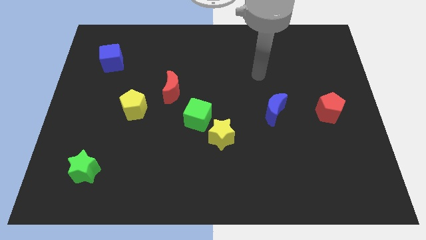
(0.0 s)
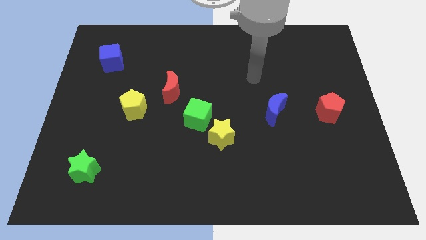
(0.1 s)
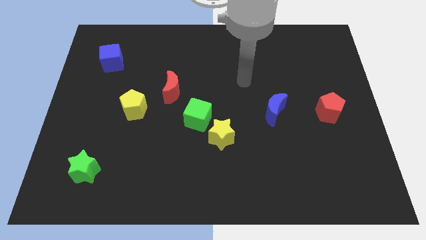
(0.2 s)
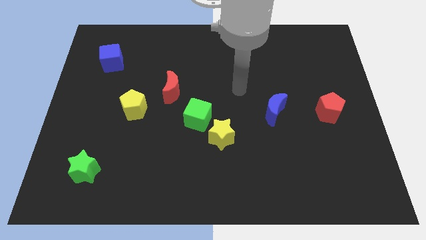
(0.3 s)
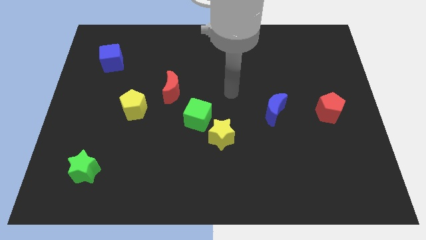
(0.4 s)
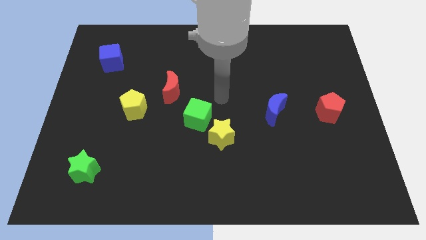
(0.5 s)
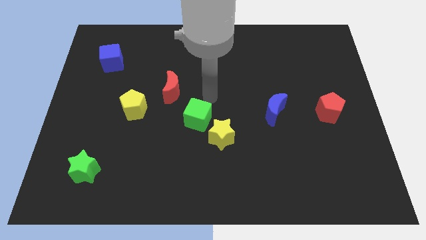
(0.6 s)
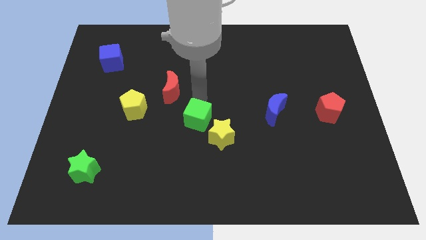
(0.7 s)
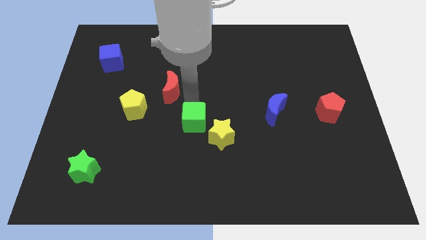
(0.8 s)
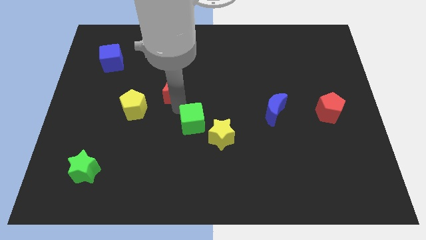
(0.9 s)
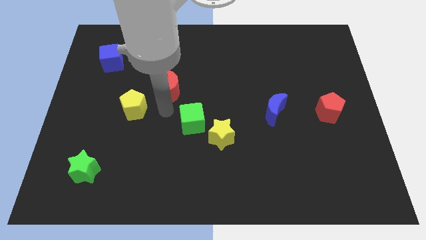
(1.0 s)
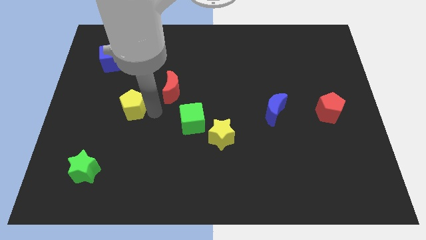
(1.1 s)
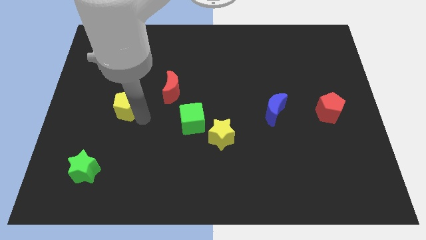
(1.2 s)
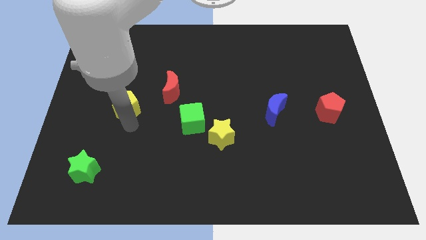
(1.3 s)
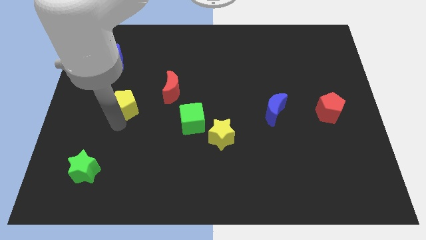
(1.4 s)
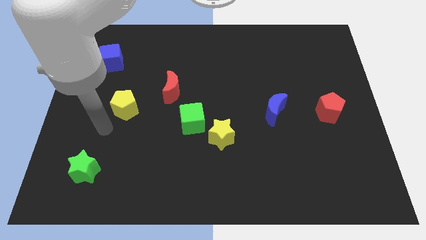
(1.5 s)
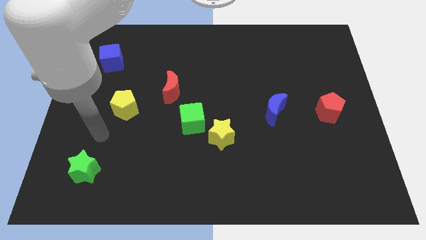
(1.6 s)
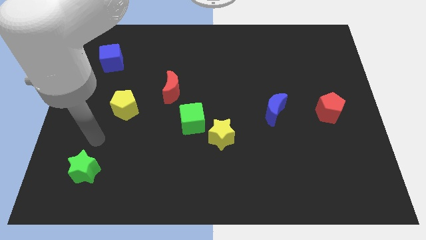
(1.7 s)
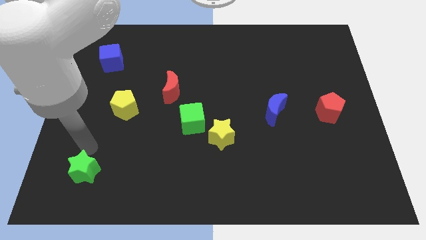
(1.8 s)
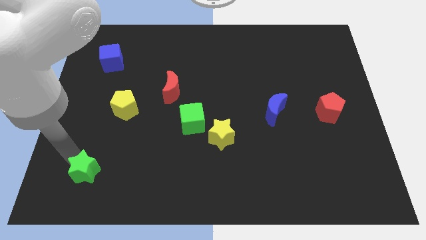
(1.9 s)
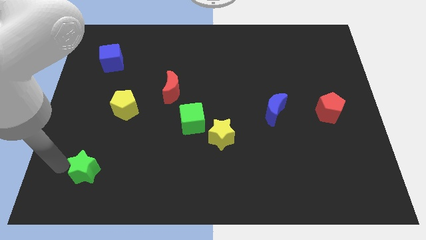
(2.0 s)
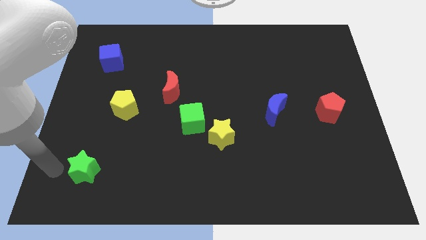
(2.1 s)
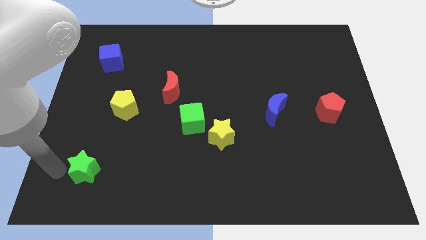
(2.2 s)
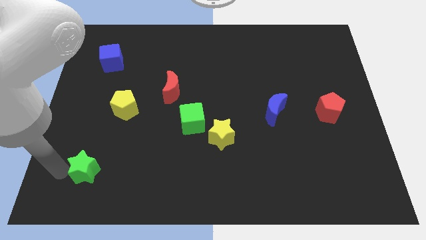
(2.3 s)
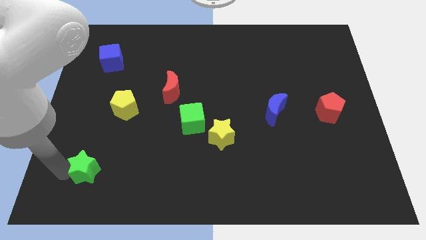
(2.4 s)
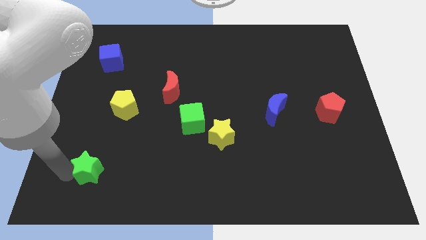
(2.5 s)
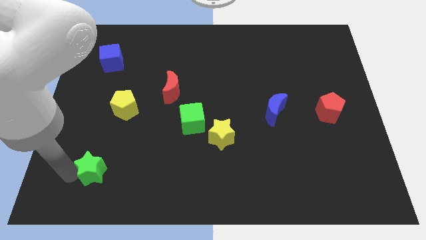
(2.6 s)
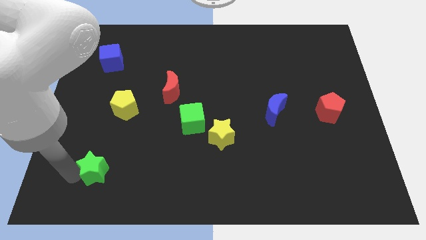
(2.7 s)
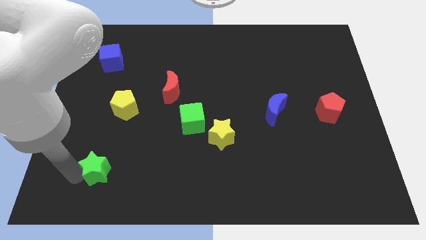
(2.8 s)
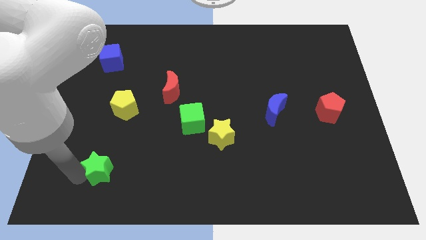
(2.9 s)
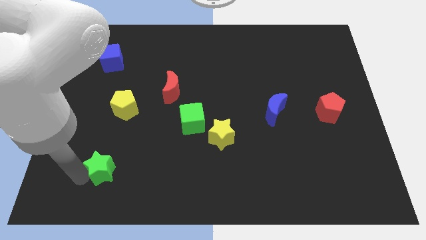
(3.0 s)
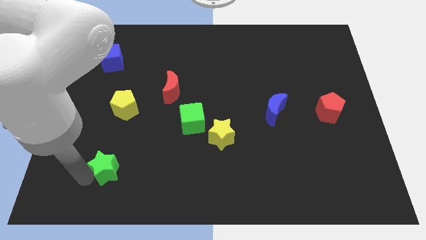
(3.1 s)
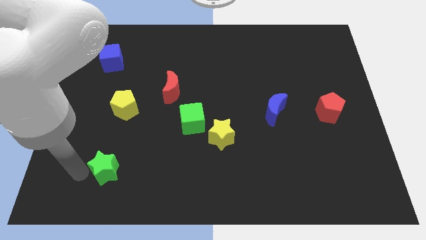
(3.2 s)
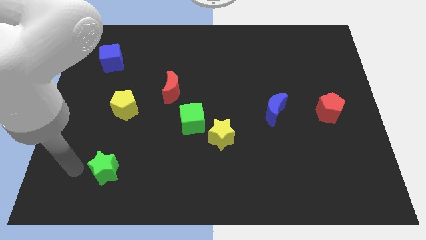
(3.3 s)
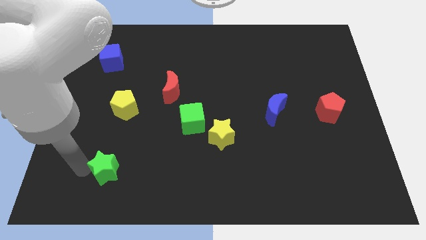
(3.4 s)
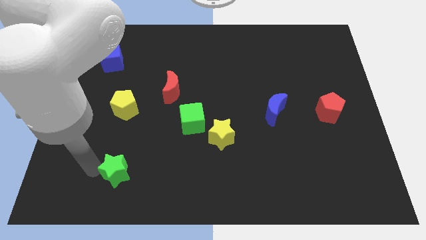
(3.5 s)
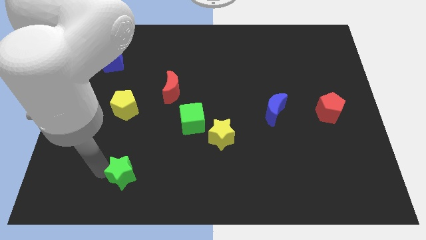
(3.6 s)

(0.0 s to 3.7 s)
slightly move the green star right

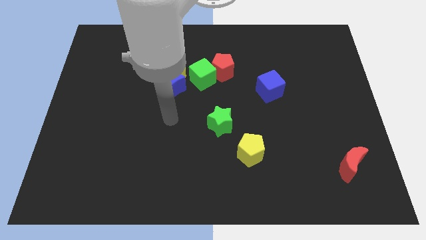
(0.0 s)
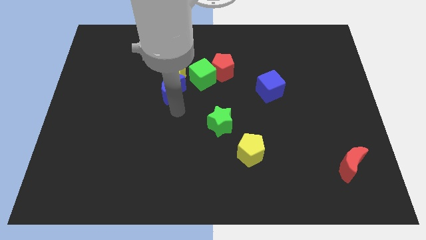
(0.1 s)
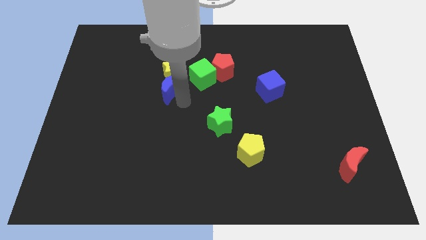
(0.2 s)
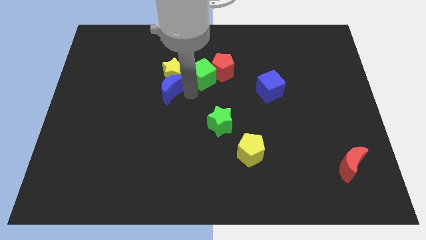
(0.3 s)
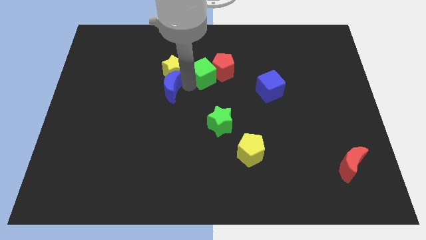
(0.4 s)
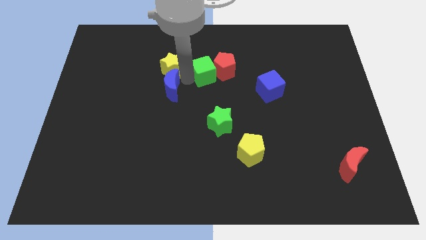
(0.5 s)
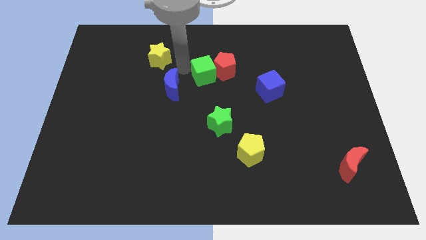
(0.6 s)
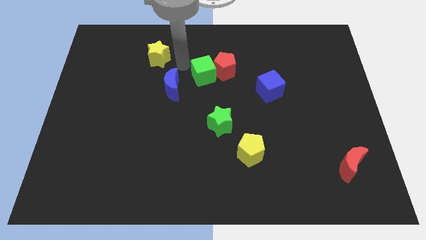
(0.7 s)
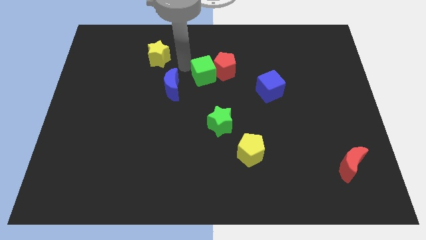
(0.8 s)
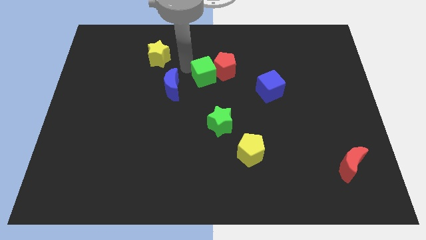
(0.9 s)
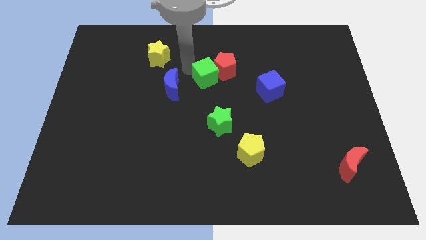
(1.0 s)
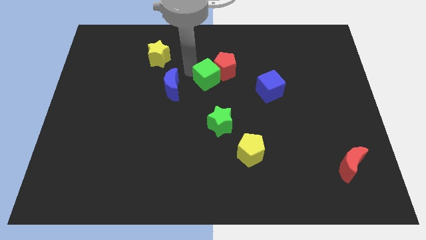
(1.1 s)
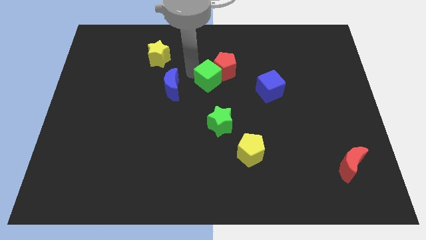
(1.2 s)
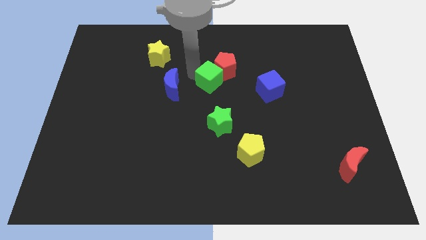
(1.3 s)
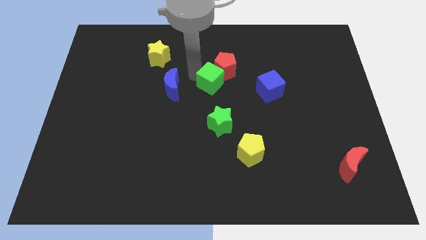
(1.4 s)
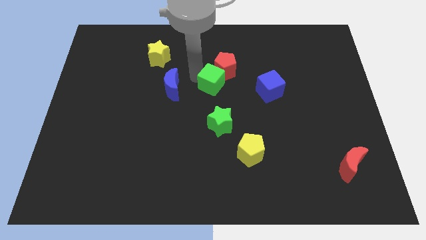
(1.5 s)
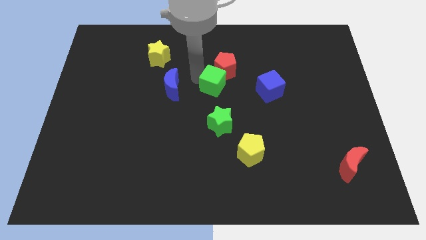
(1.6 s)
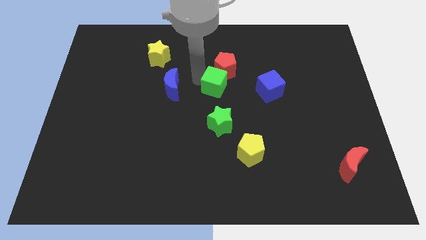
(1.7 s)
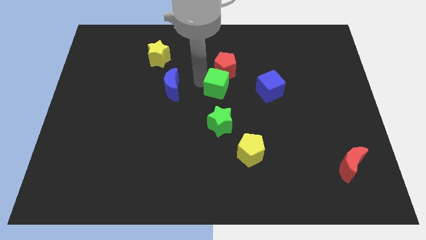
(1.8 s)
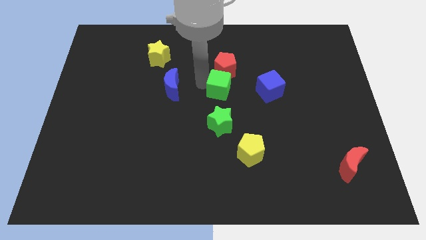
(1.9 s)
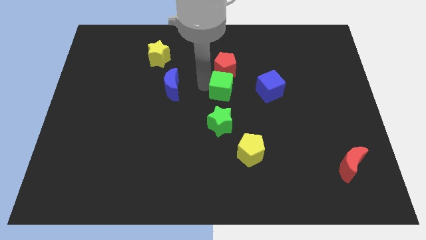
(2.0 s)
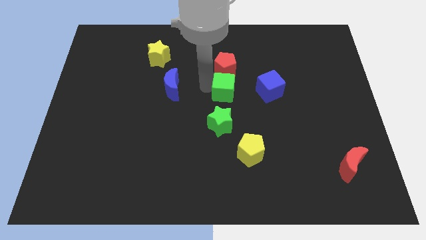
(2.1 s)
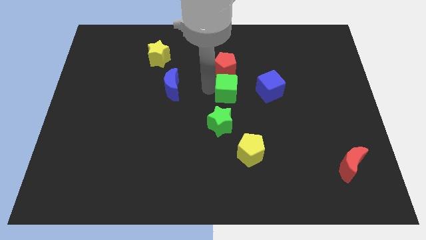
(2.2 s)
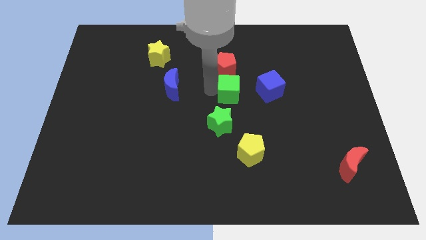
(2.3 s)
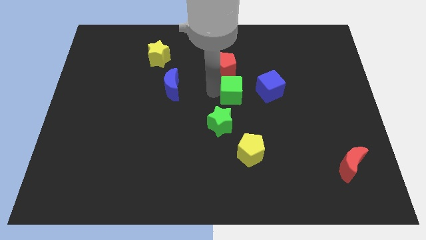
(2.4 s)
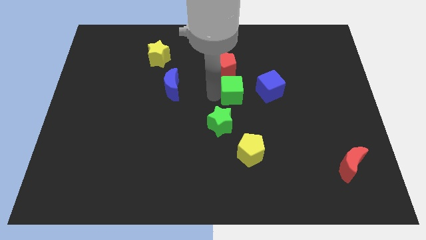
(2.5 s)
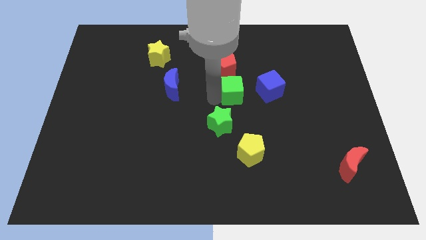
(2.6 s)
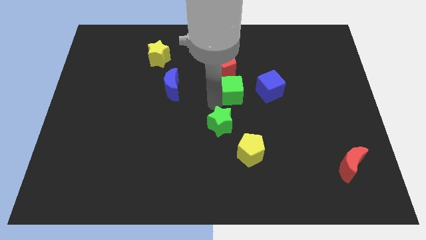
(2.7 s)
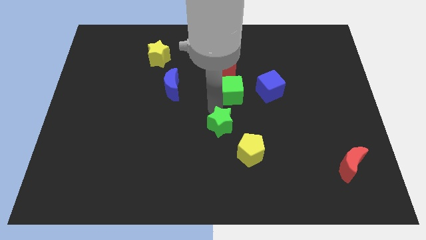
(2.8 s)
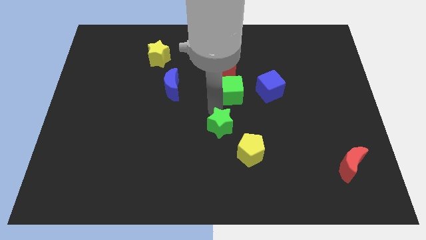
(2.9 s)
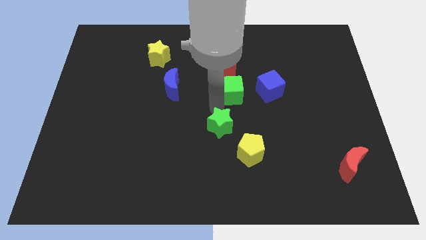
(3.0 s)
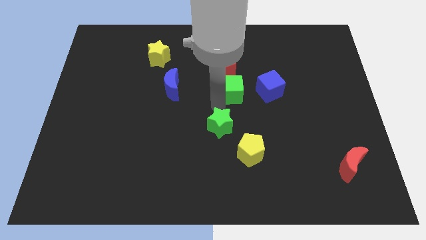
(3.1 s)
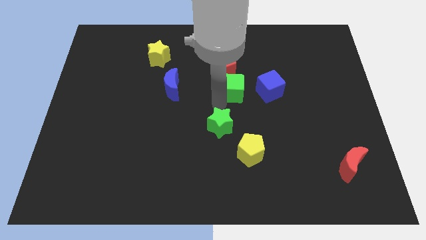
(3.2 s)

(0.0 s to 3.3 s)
slightly push the green cube to the right
